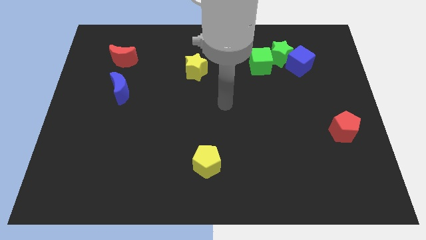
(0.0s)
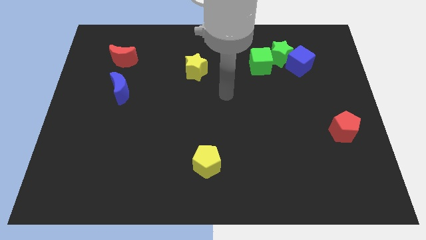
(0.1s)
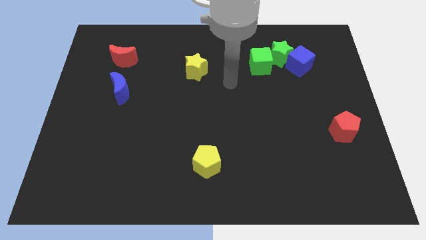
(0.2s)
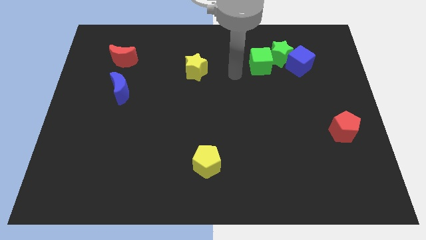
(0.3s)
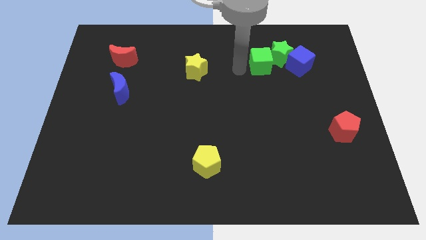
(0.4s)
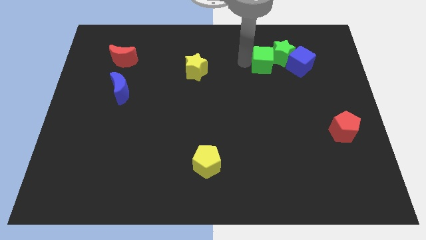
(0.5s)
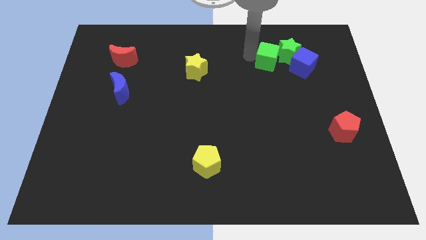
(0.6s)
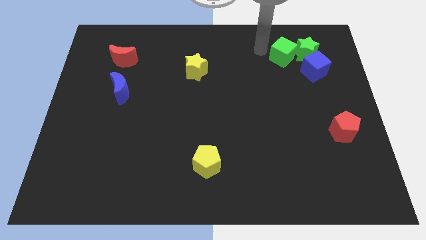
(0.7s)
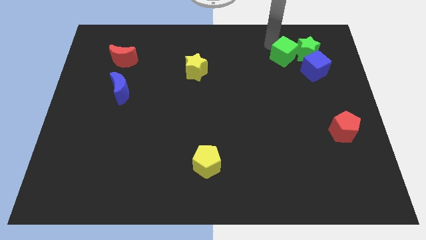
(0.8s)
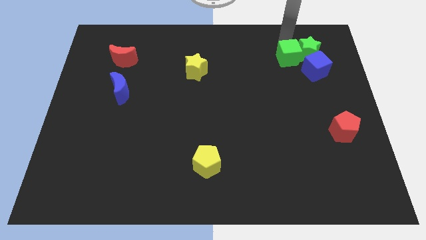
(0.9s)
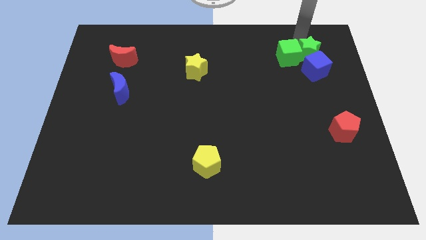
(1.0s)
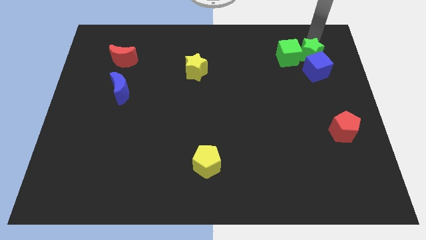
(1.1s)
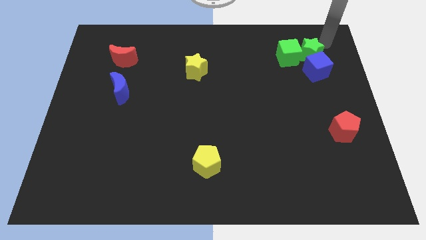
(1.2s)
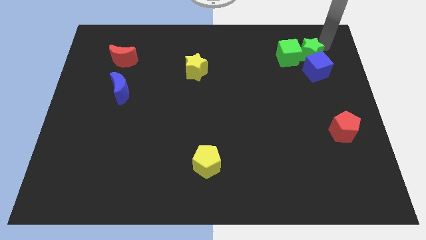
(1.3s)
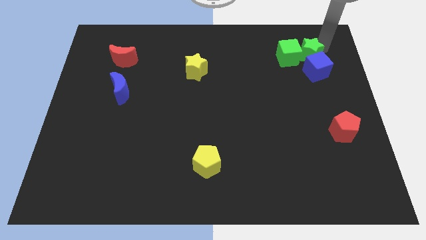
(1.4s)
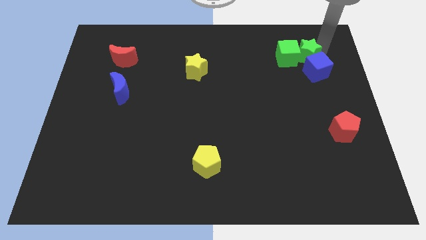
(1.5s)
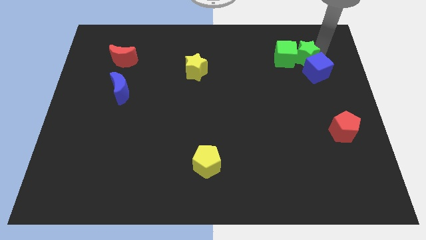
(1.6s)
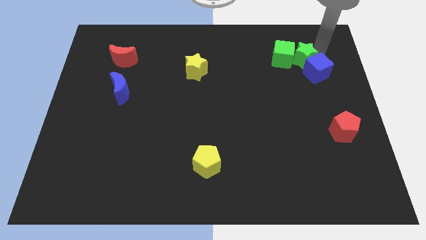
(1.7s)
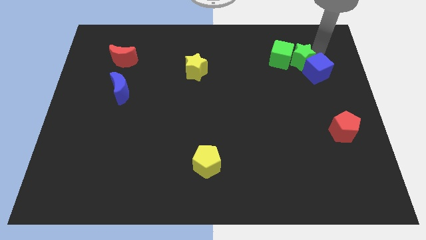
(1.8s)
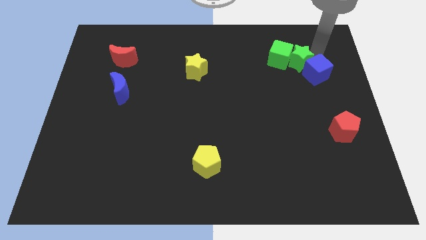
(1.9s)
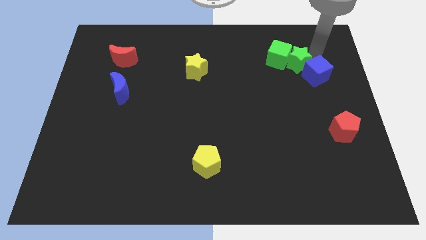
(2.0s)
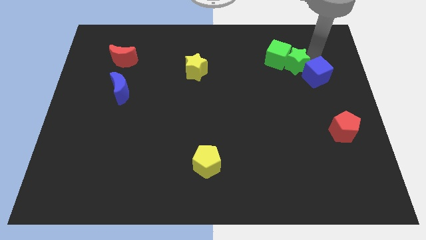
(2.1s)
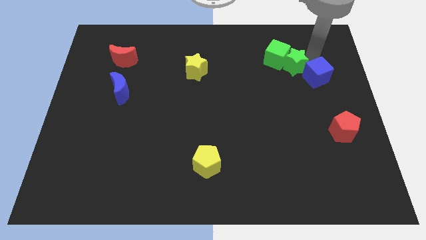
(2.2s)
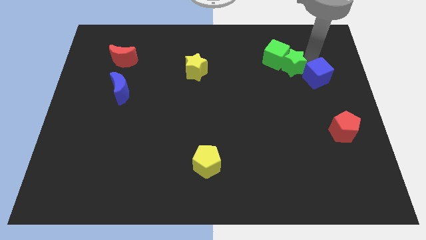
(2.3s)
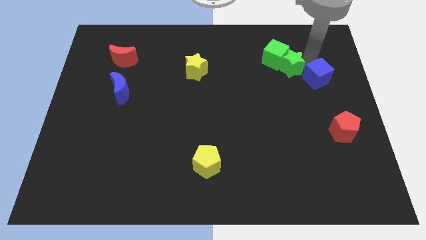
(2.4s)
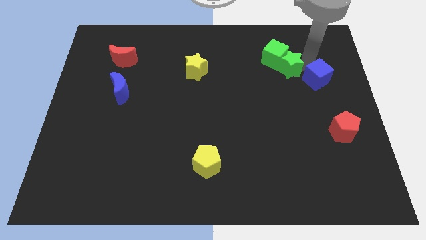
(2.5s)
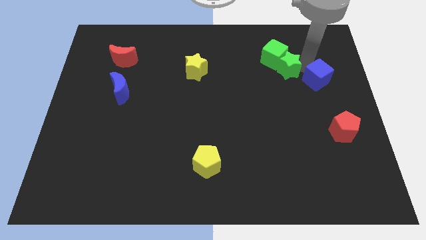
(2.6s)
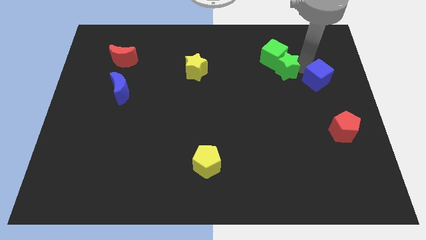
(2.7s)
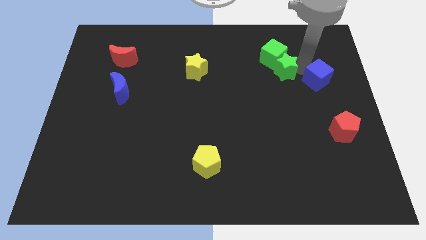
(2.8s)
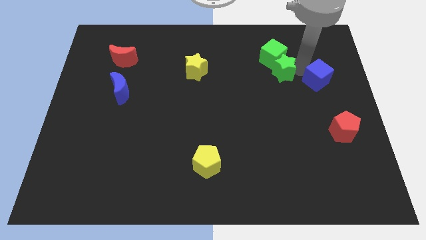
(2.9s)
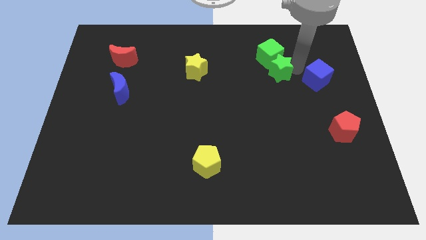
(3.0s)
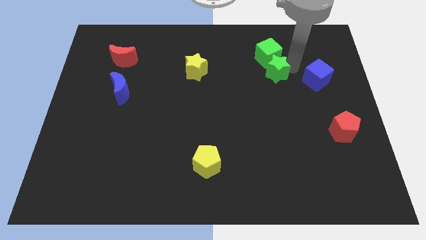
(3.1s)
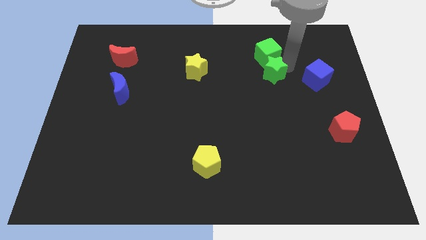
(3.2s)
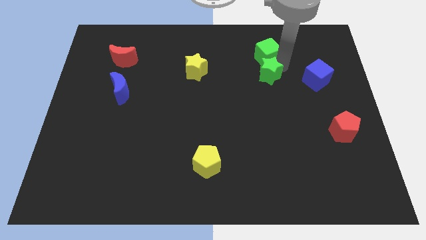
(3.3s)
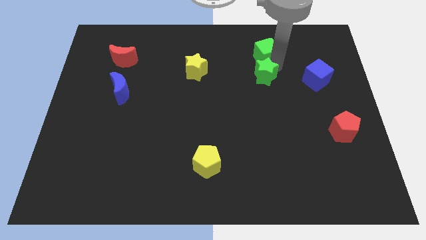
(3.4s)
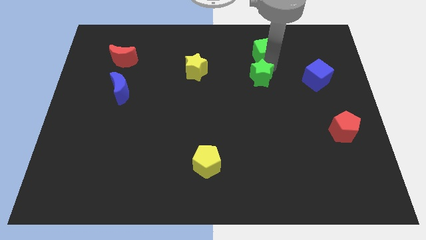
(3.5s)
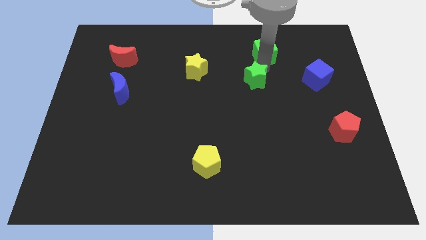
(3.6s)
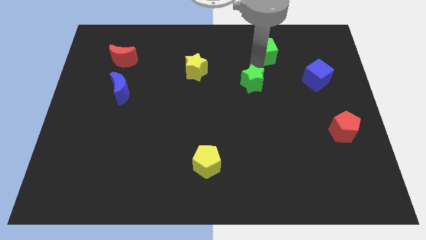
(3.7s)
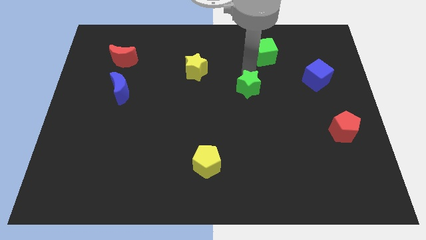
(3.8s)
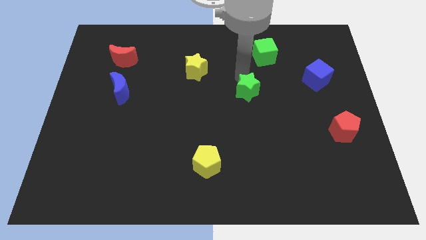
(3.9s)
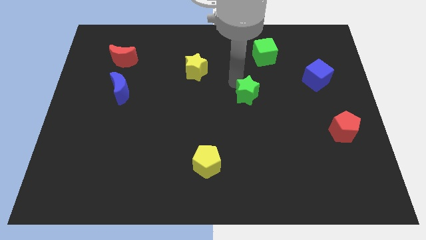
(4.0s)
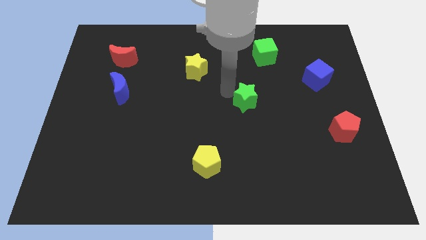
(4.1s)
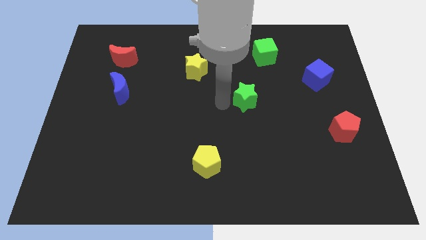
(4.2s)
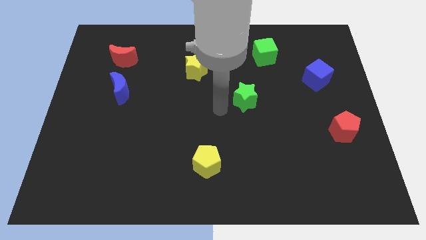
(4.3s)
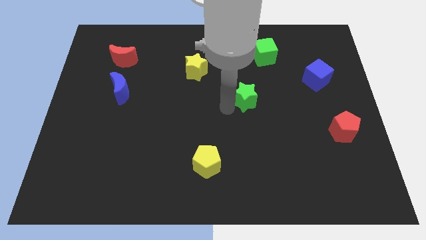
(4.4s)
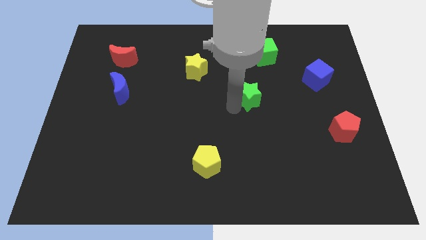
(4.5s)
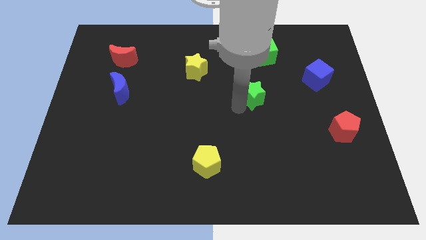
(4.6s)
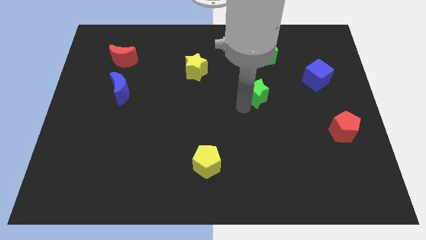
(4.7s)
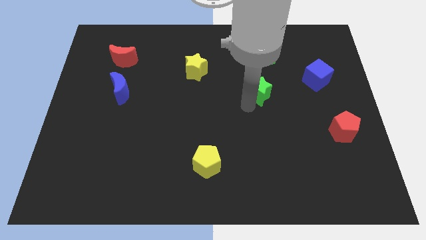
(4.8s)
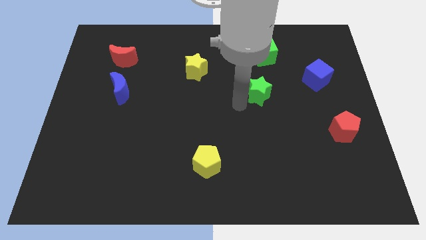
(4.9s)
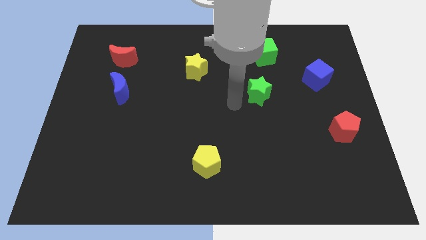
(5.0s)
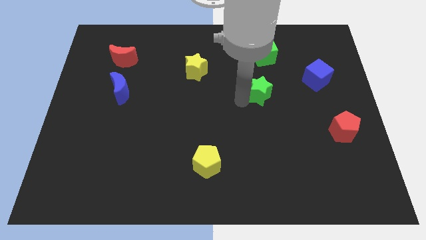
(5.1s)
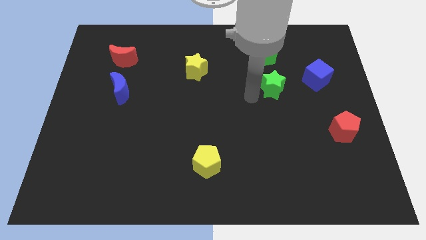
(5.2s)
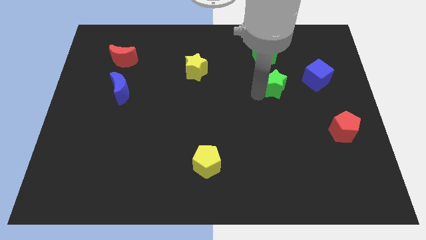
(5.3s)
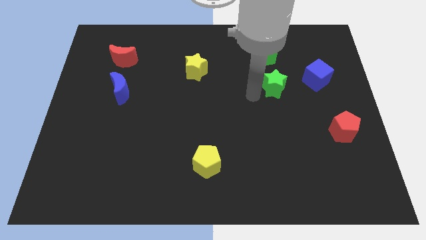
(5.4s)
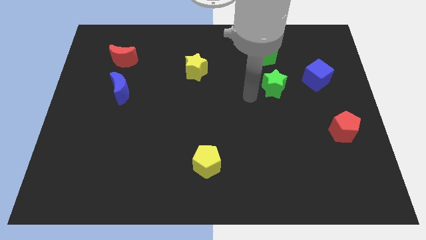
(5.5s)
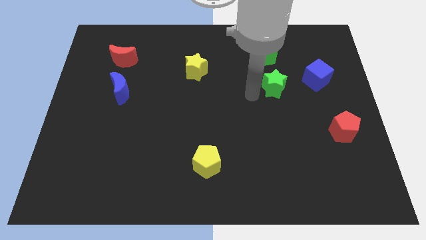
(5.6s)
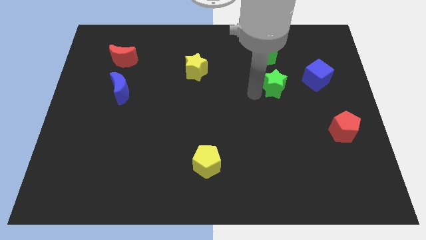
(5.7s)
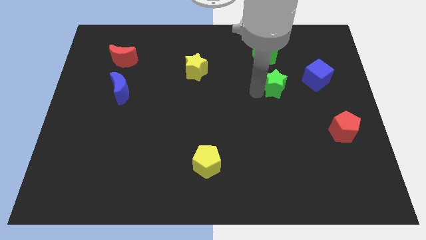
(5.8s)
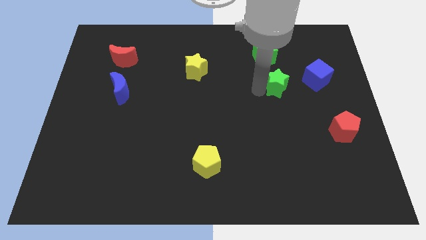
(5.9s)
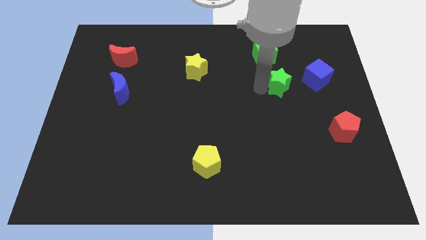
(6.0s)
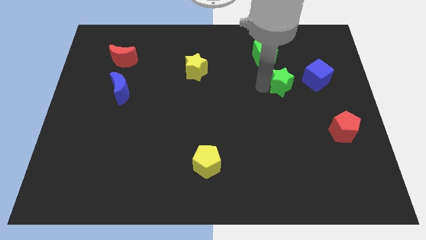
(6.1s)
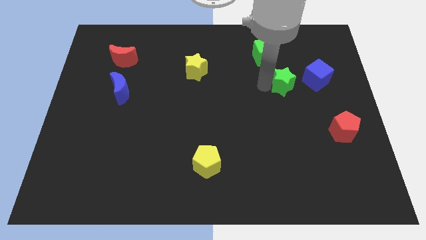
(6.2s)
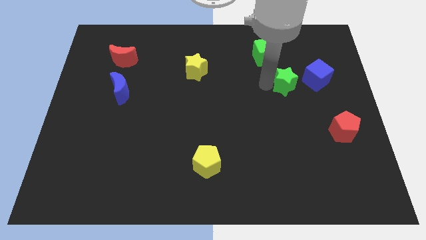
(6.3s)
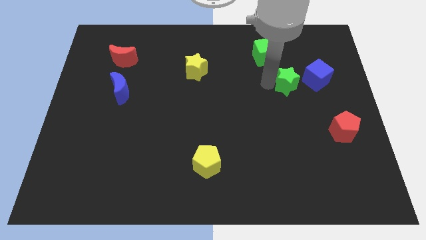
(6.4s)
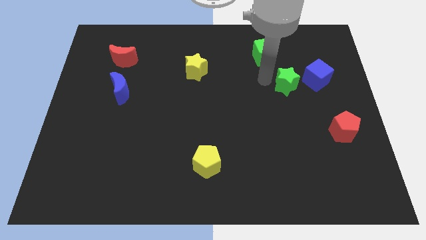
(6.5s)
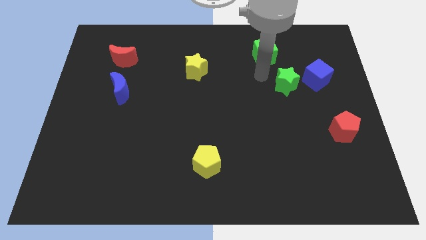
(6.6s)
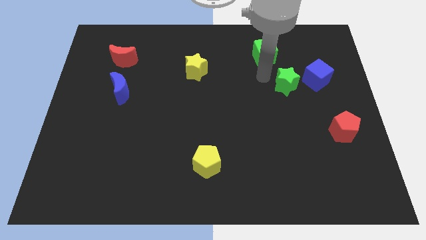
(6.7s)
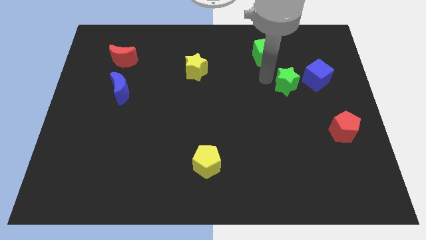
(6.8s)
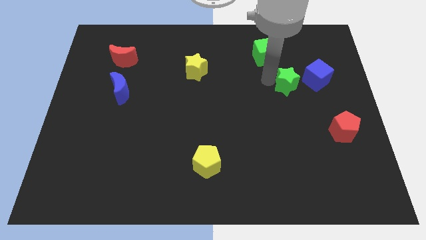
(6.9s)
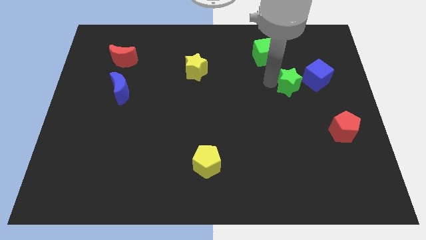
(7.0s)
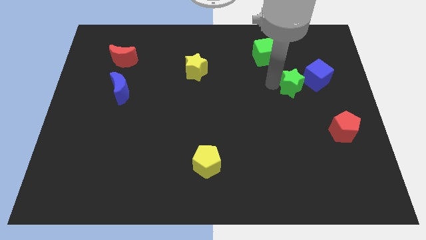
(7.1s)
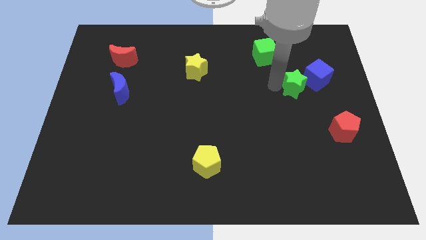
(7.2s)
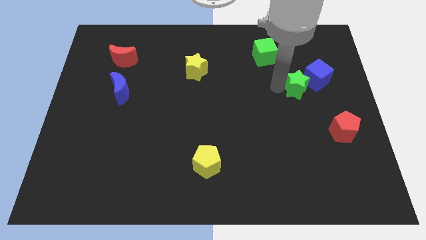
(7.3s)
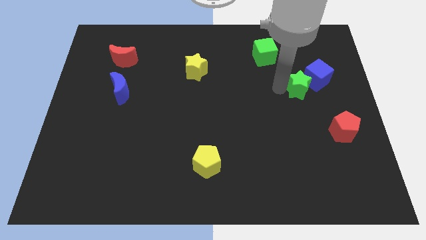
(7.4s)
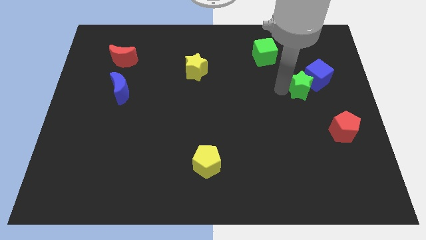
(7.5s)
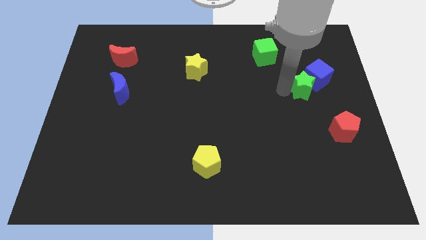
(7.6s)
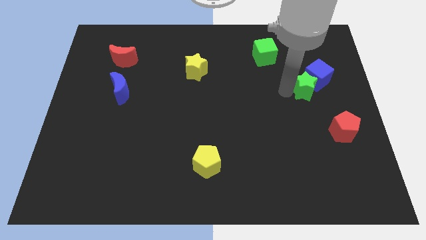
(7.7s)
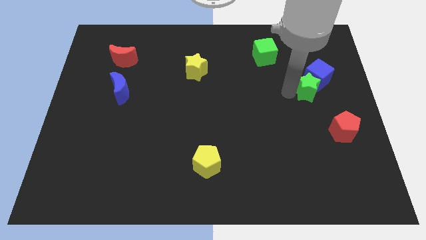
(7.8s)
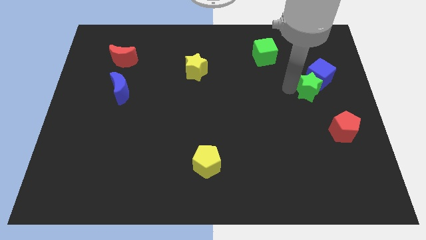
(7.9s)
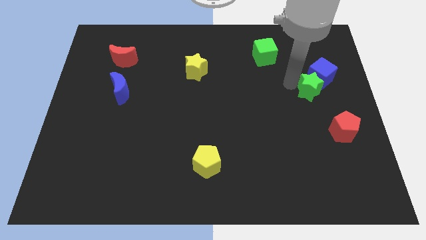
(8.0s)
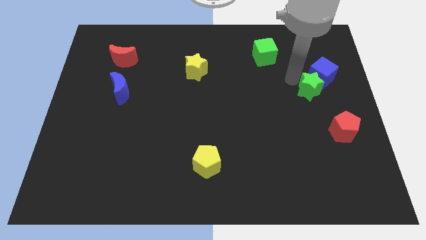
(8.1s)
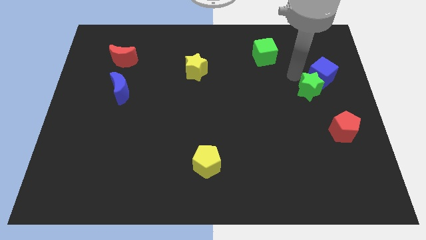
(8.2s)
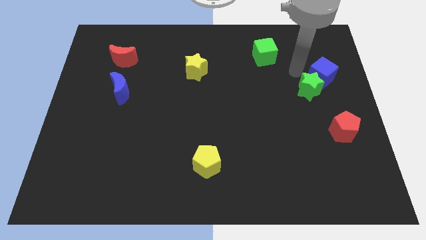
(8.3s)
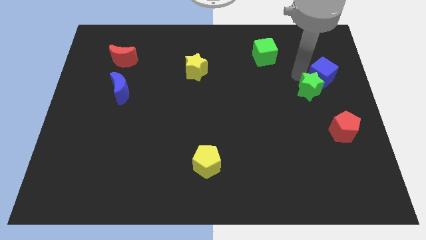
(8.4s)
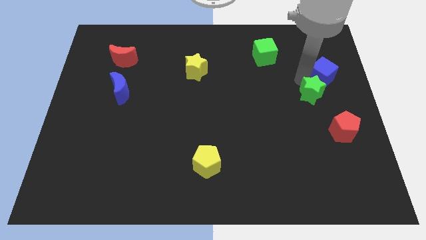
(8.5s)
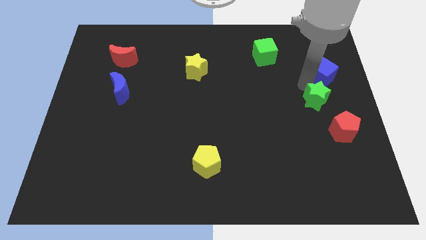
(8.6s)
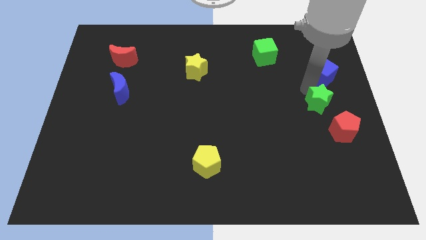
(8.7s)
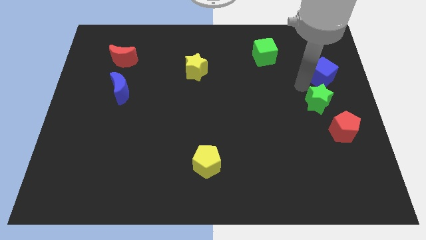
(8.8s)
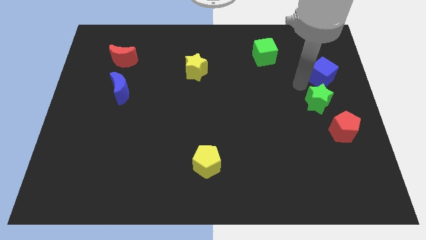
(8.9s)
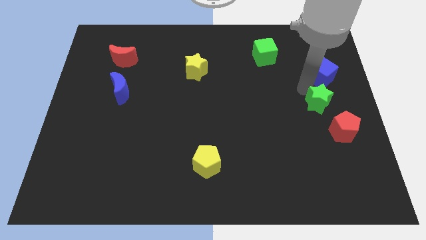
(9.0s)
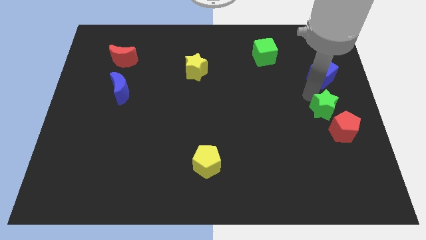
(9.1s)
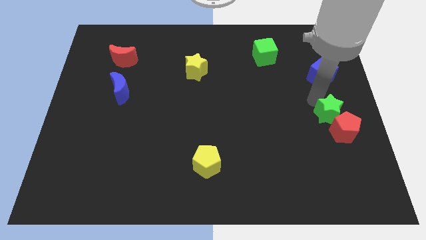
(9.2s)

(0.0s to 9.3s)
slide the green star to the red pentagon
